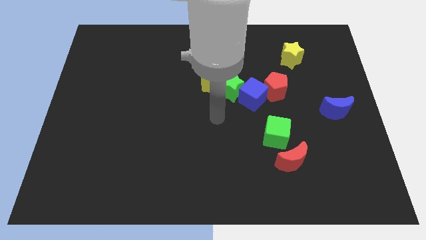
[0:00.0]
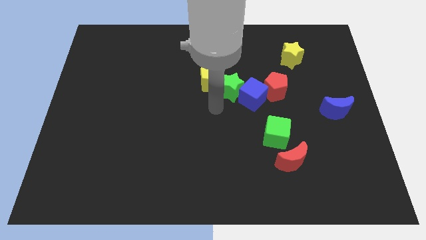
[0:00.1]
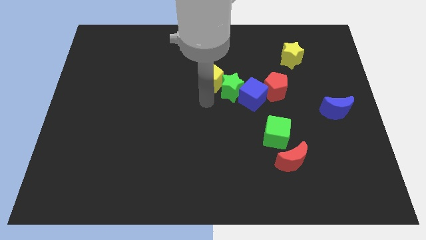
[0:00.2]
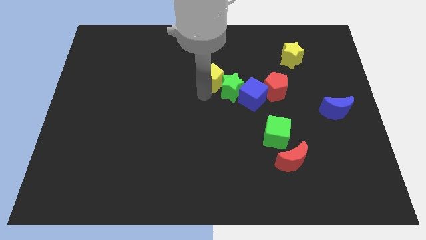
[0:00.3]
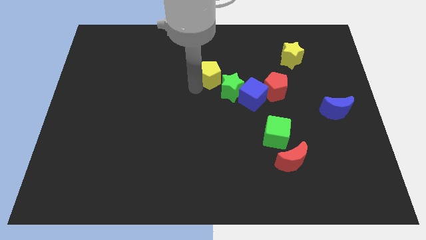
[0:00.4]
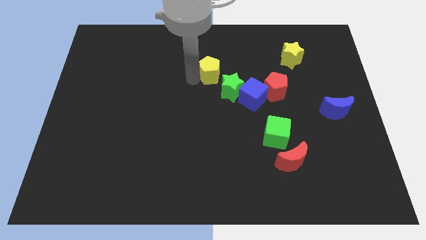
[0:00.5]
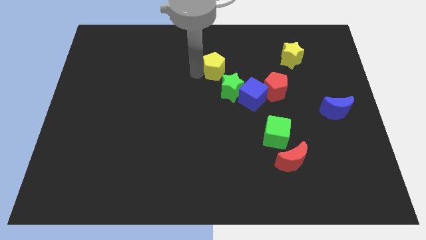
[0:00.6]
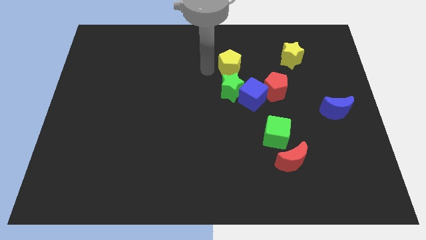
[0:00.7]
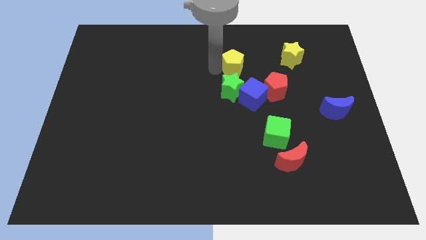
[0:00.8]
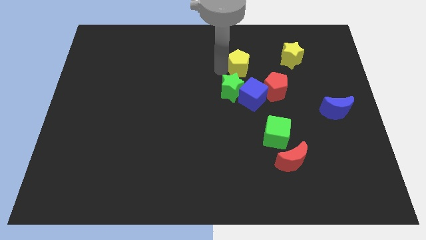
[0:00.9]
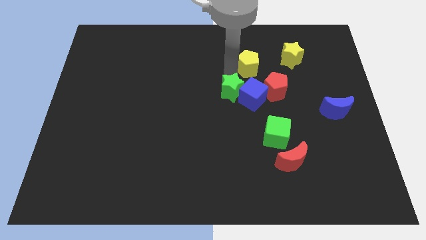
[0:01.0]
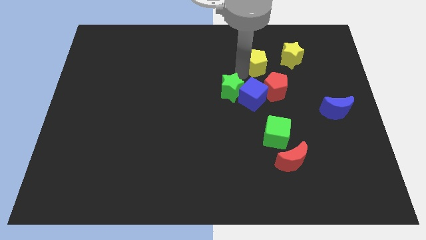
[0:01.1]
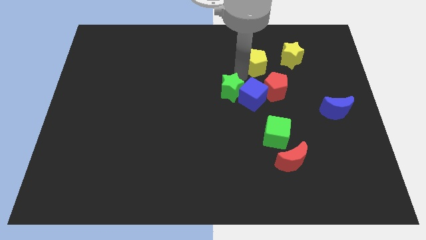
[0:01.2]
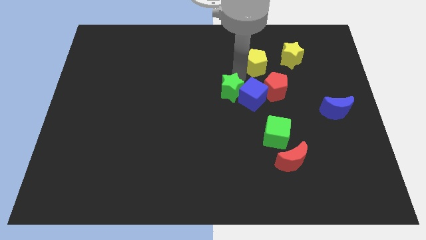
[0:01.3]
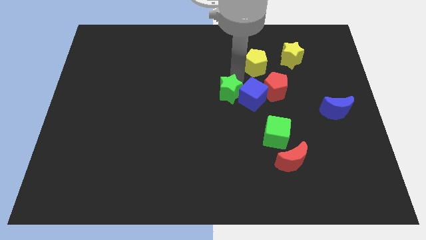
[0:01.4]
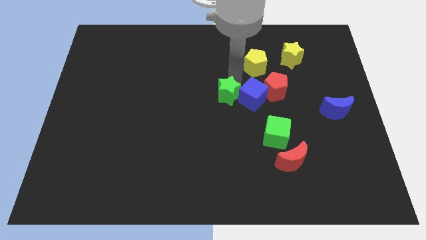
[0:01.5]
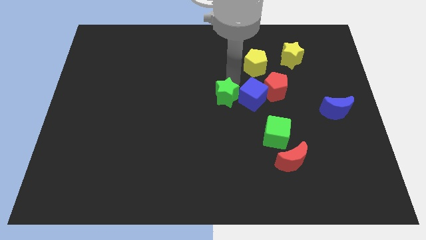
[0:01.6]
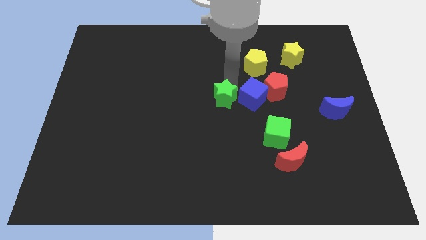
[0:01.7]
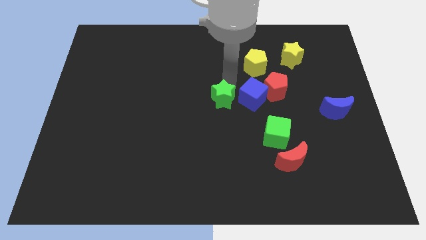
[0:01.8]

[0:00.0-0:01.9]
pull the green star apart from the blue cube and yellow pentagon

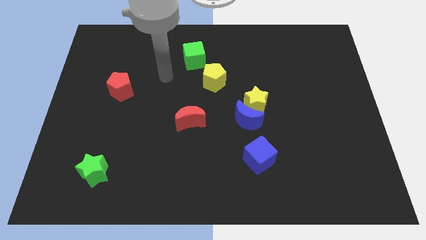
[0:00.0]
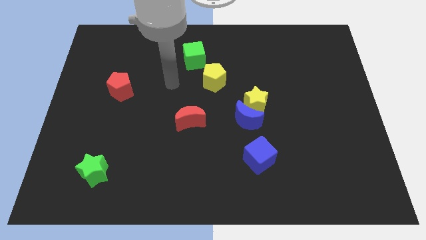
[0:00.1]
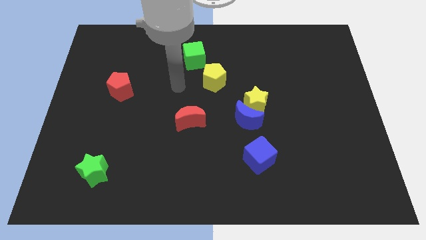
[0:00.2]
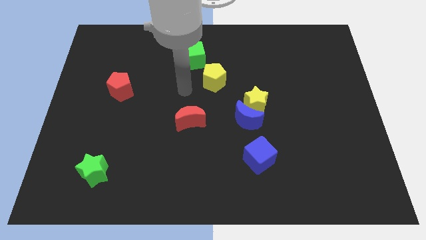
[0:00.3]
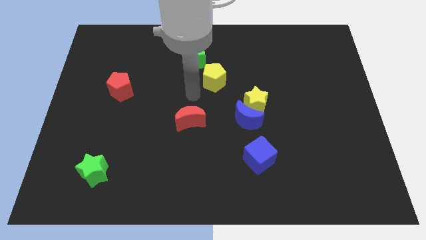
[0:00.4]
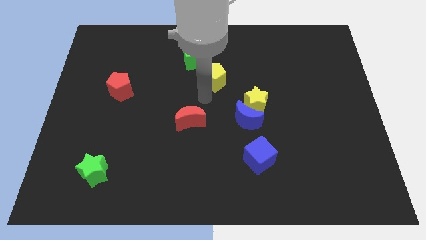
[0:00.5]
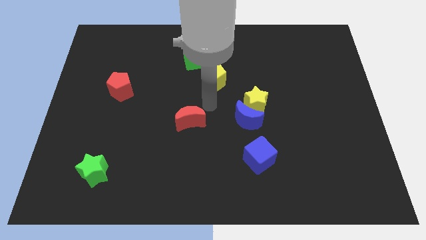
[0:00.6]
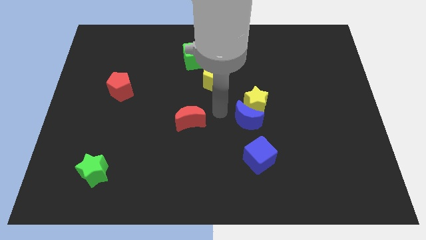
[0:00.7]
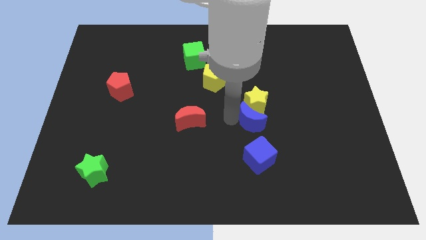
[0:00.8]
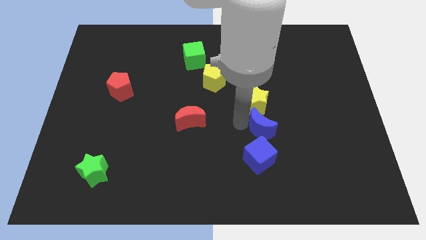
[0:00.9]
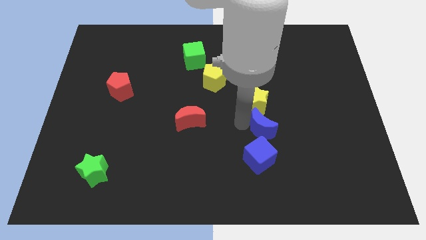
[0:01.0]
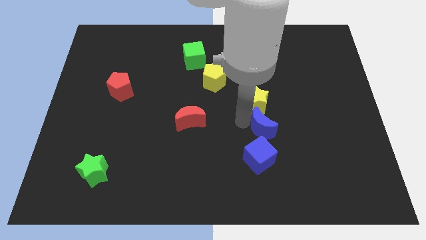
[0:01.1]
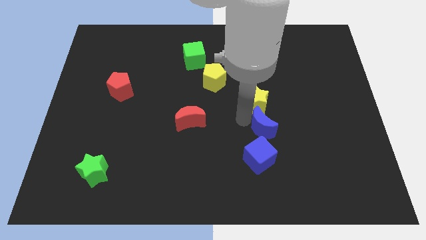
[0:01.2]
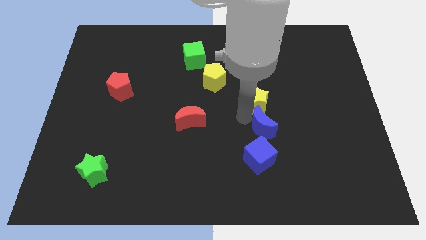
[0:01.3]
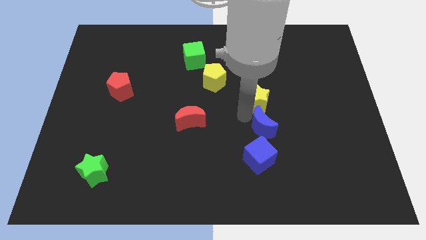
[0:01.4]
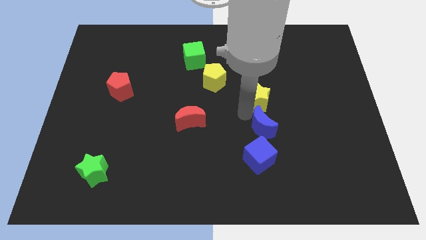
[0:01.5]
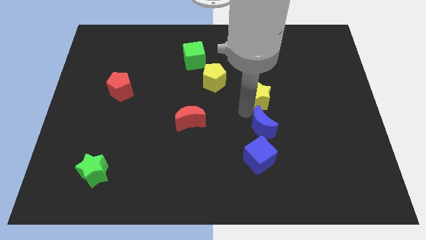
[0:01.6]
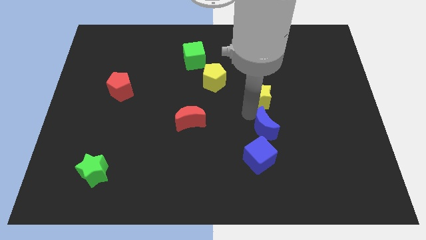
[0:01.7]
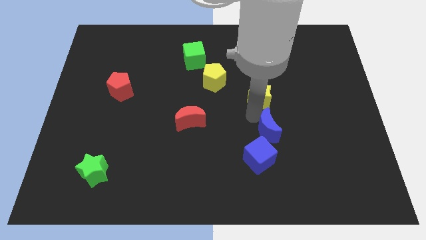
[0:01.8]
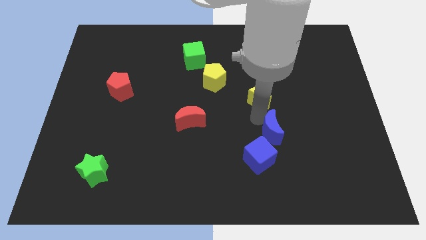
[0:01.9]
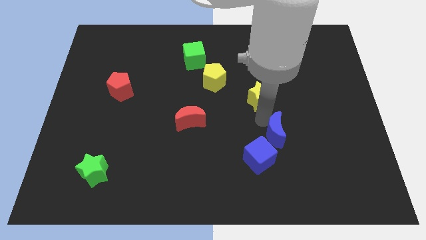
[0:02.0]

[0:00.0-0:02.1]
move the yellow star away from the blue moon

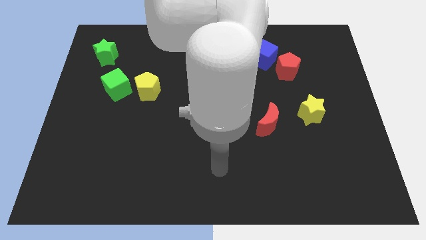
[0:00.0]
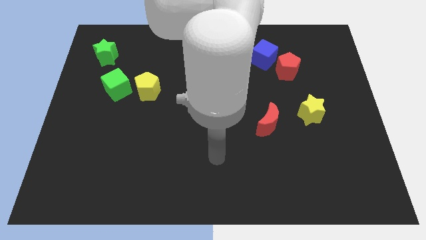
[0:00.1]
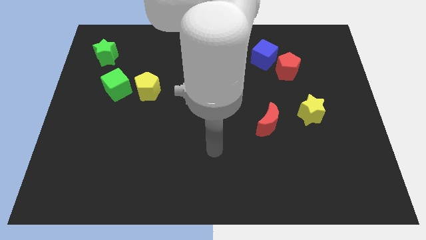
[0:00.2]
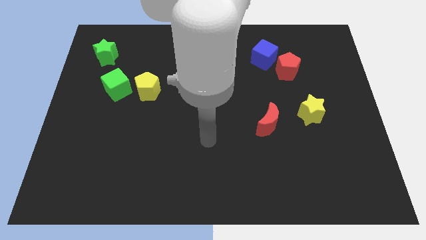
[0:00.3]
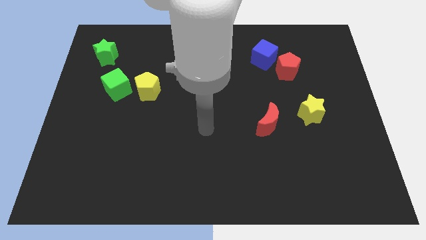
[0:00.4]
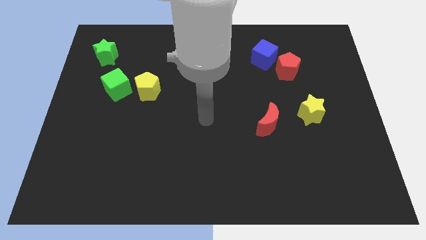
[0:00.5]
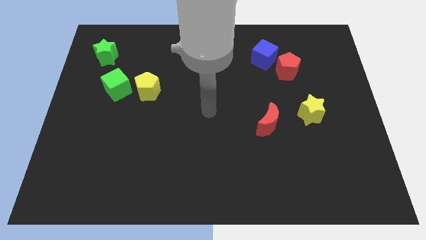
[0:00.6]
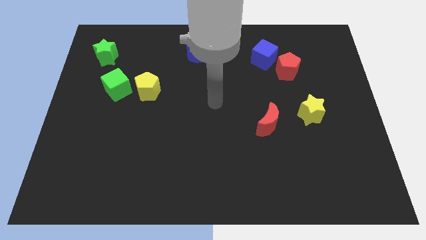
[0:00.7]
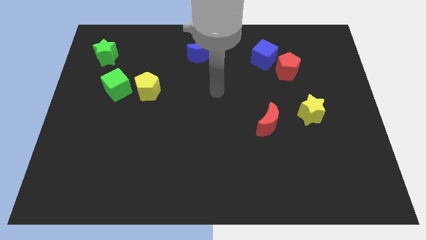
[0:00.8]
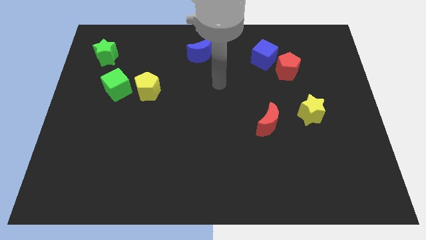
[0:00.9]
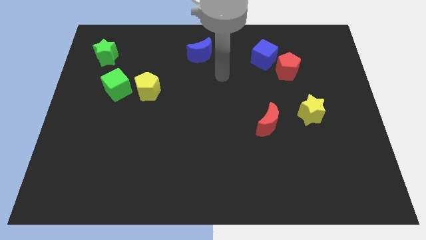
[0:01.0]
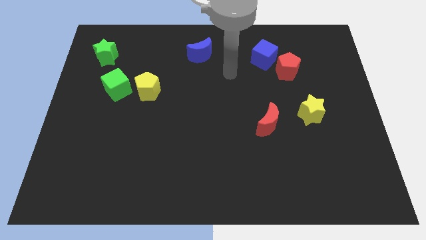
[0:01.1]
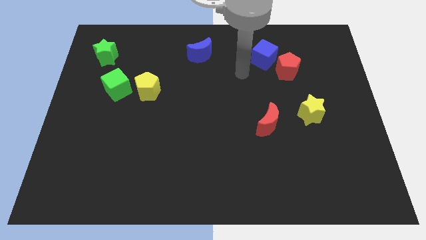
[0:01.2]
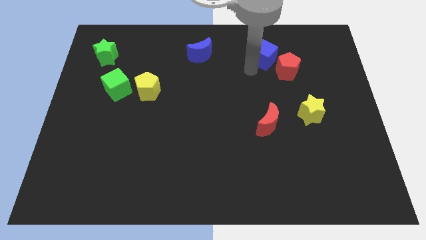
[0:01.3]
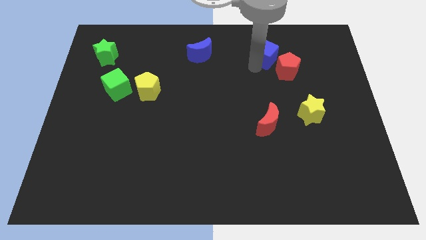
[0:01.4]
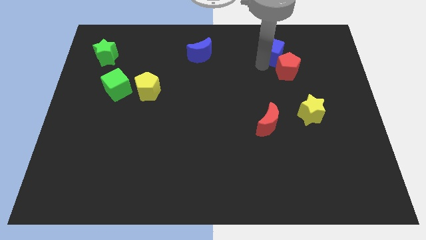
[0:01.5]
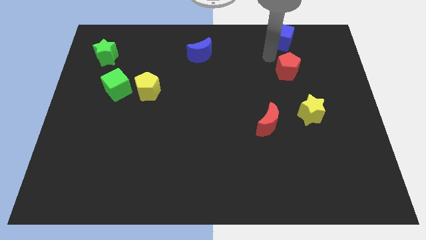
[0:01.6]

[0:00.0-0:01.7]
separate the red pentagon from the blue cube

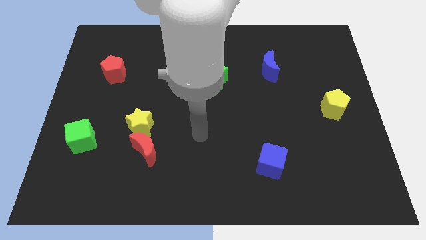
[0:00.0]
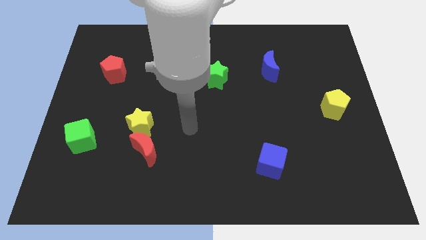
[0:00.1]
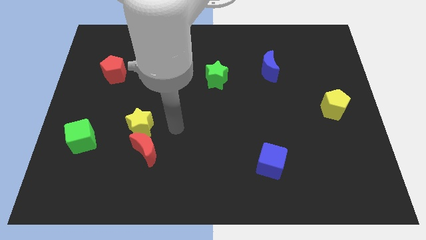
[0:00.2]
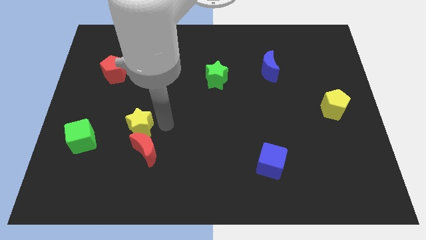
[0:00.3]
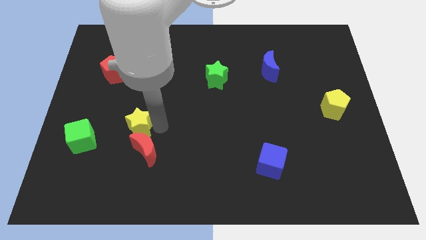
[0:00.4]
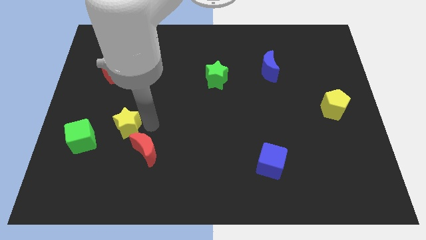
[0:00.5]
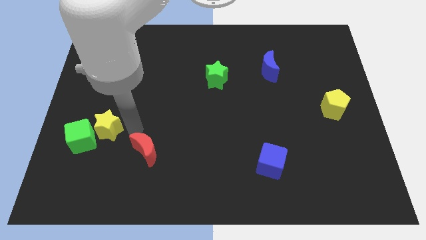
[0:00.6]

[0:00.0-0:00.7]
separate the red moon from the yellow star

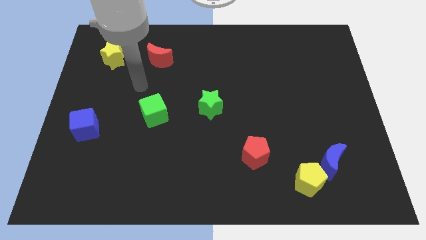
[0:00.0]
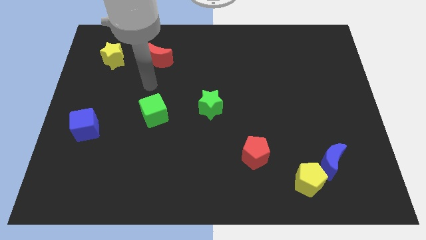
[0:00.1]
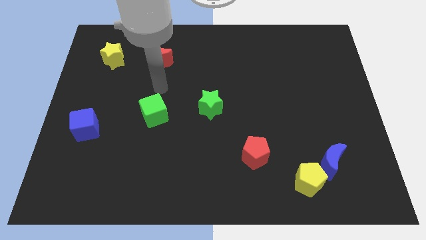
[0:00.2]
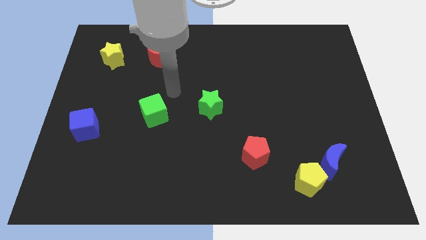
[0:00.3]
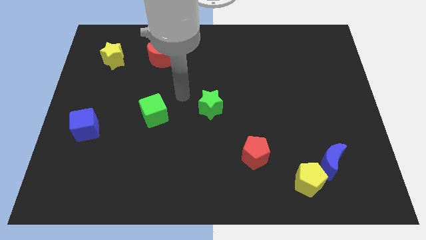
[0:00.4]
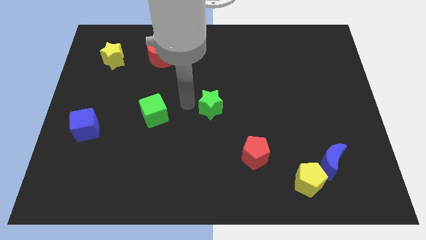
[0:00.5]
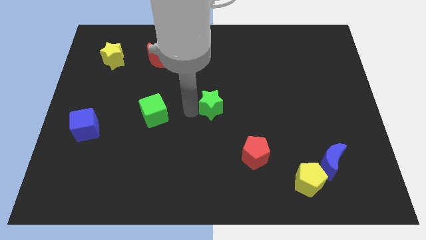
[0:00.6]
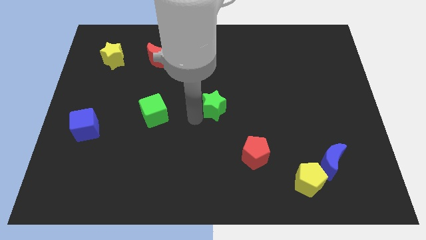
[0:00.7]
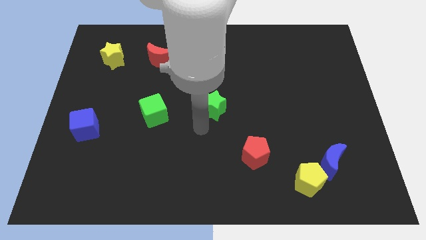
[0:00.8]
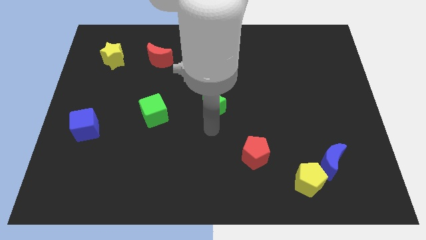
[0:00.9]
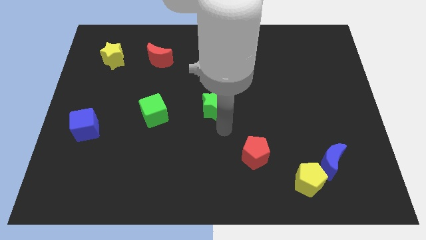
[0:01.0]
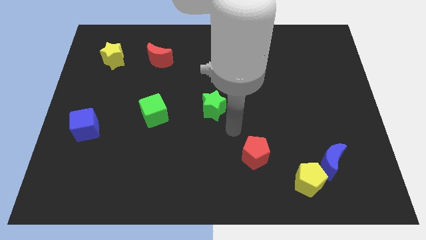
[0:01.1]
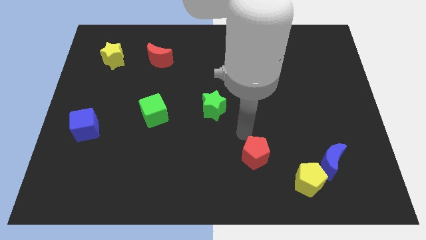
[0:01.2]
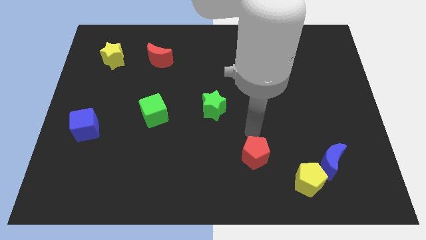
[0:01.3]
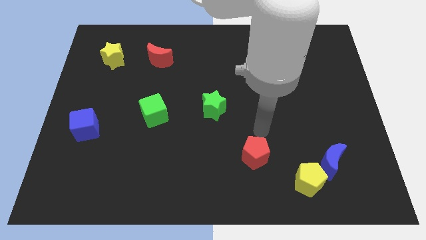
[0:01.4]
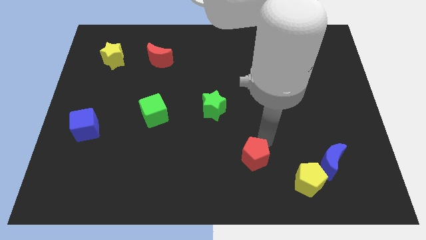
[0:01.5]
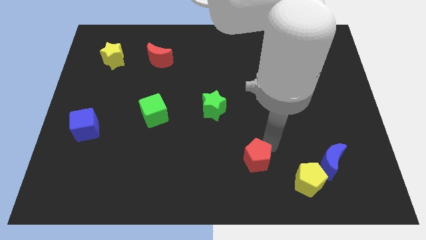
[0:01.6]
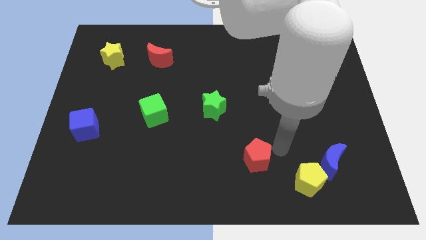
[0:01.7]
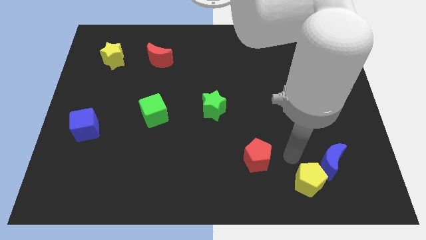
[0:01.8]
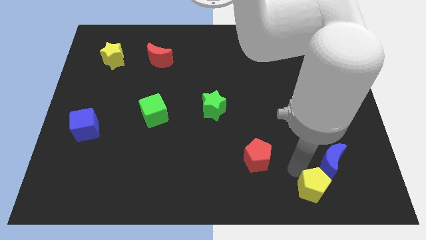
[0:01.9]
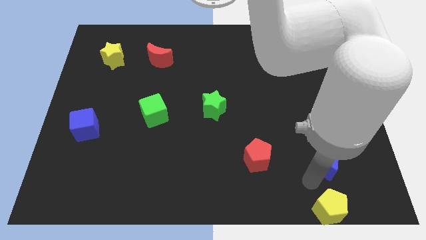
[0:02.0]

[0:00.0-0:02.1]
pull the blue moon apart from the yellow pentagon

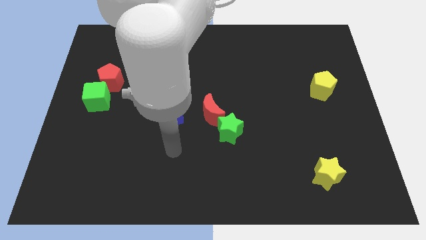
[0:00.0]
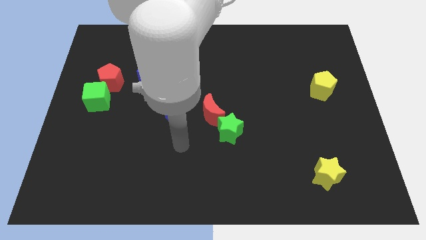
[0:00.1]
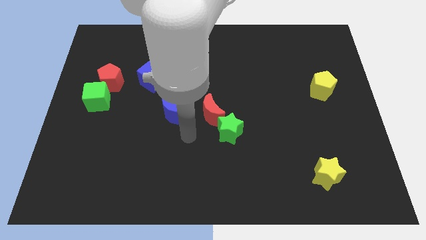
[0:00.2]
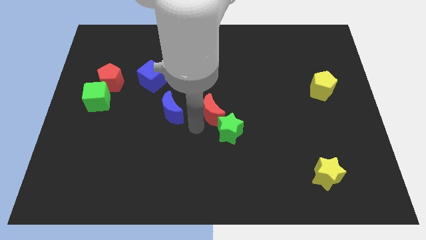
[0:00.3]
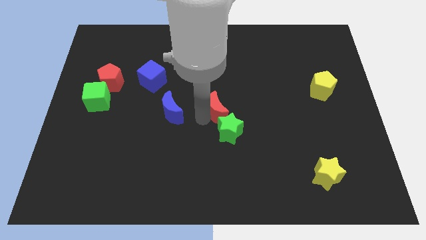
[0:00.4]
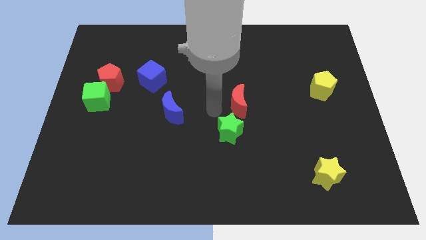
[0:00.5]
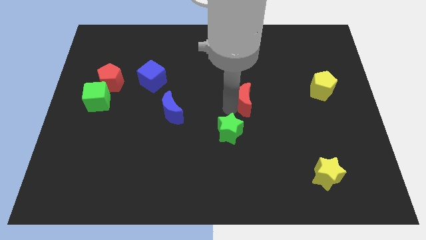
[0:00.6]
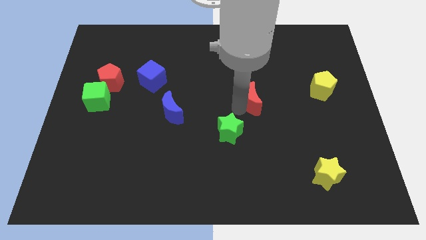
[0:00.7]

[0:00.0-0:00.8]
pull the green star apart from the red moon

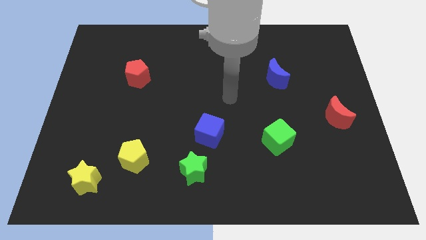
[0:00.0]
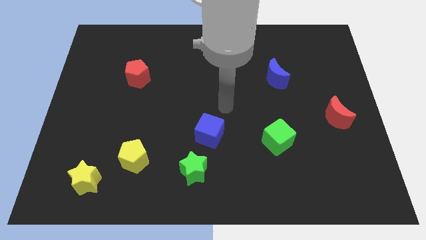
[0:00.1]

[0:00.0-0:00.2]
separate the blue cube from the green star
